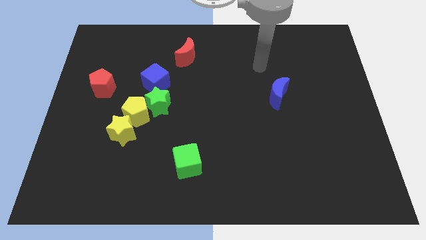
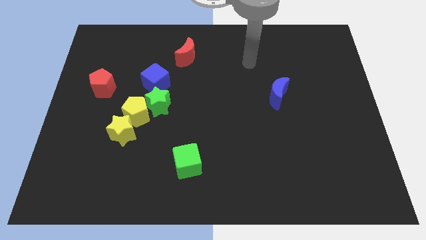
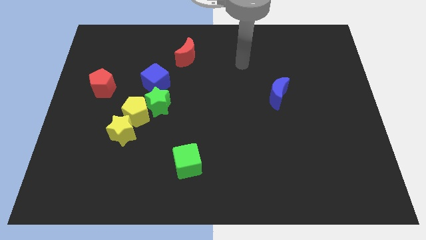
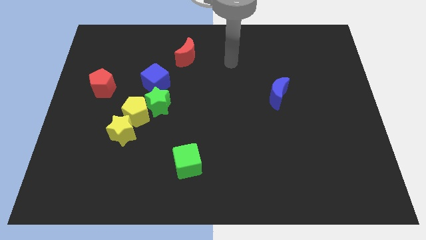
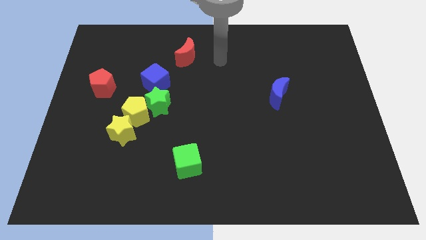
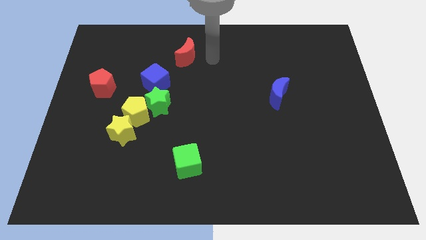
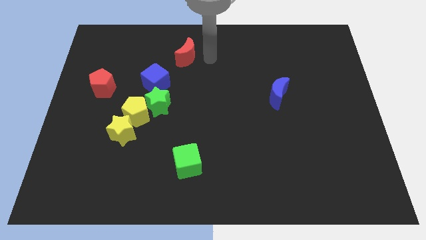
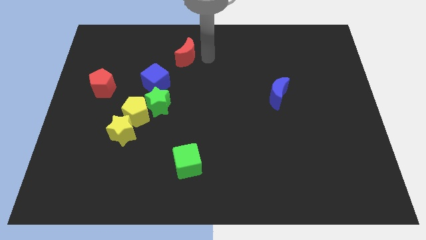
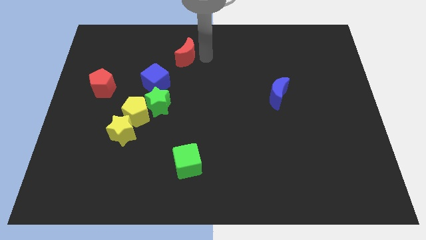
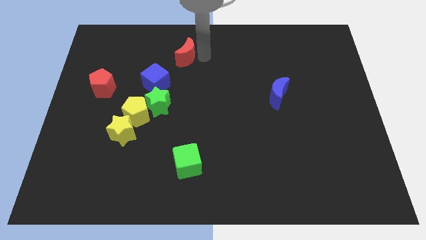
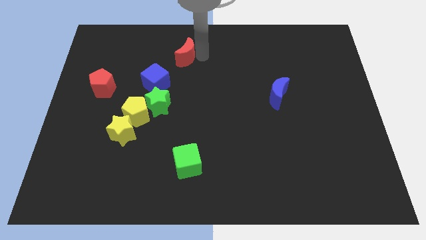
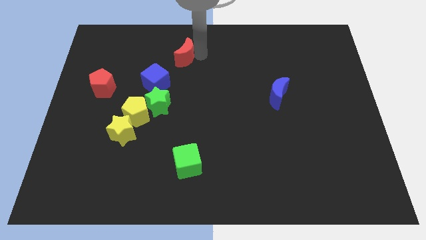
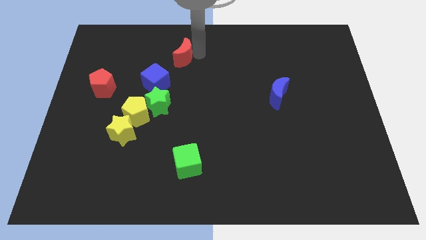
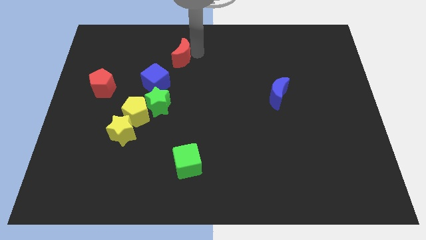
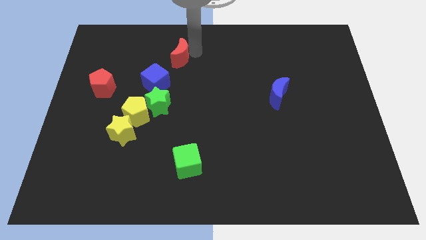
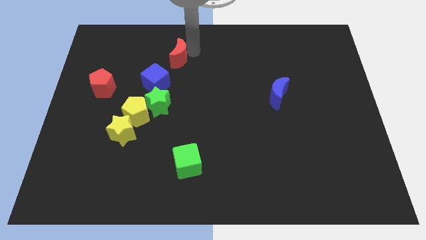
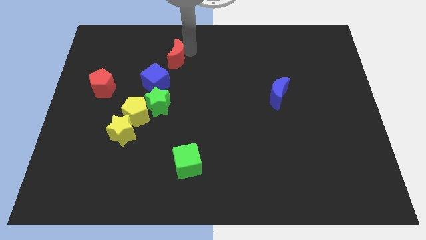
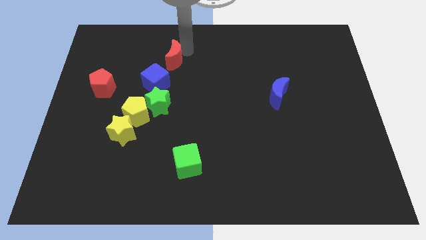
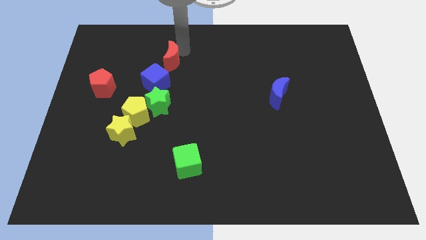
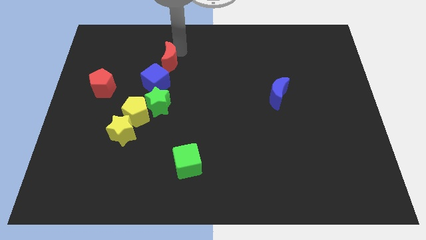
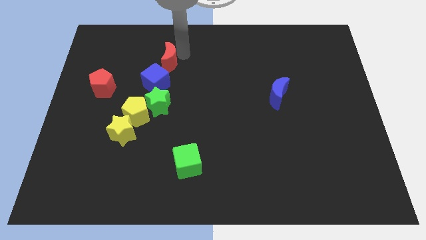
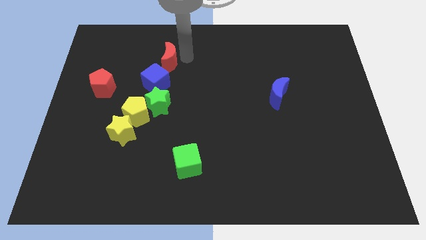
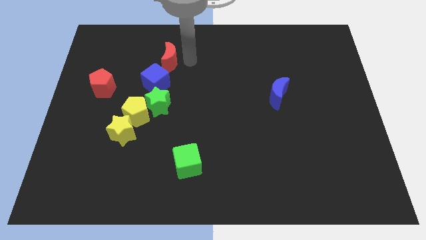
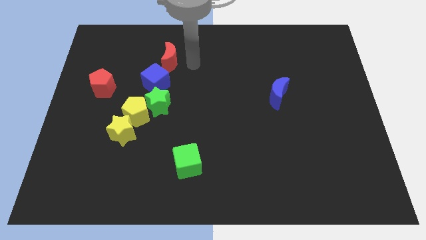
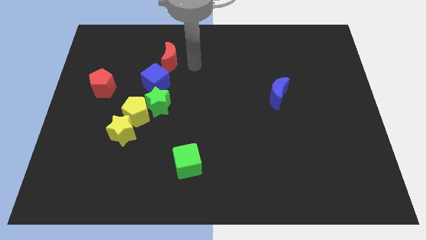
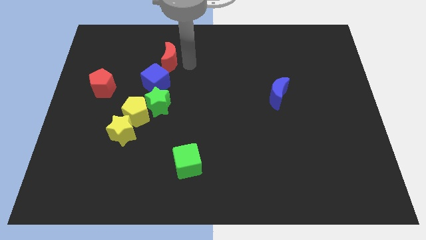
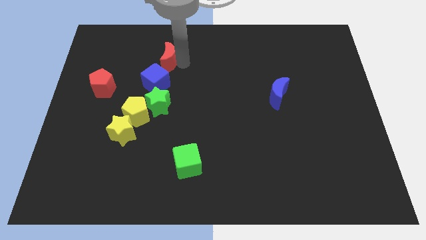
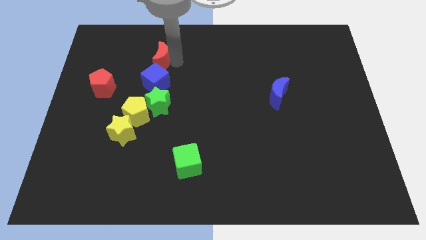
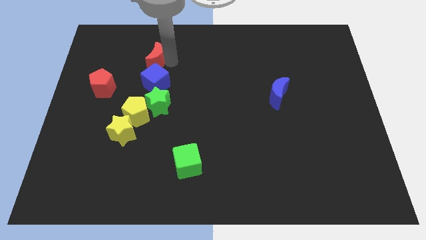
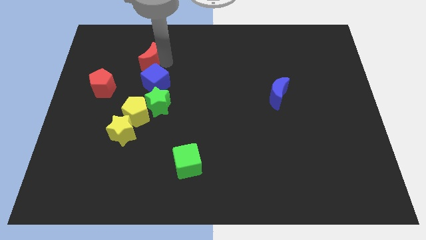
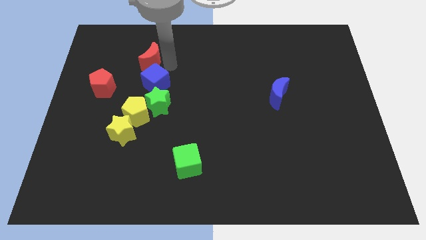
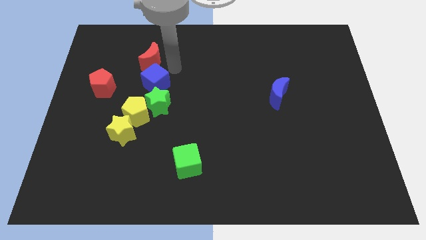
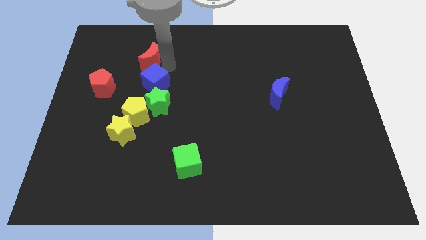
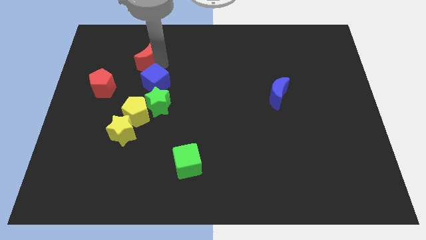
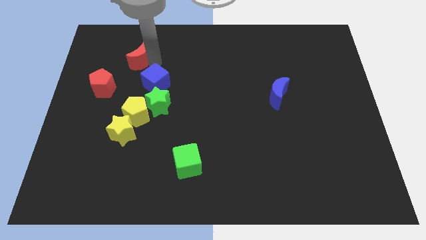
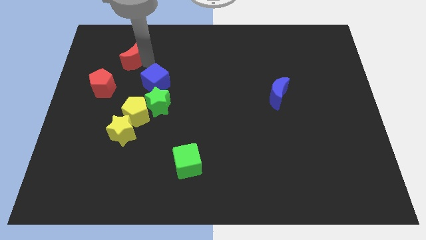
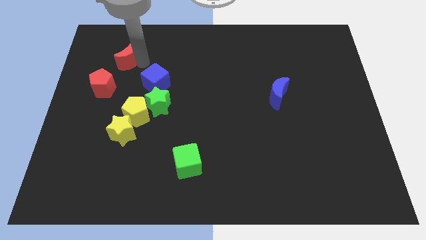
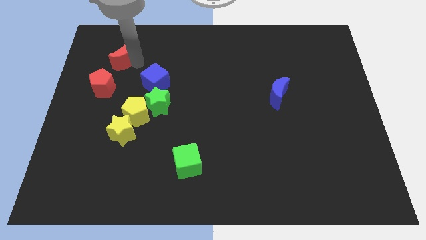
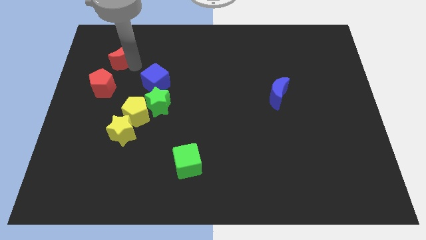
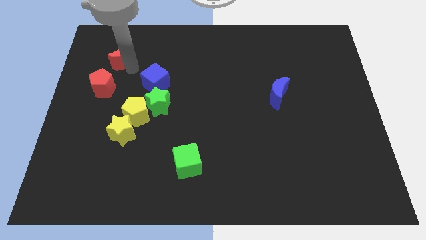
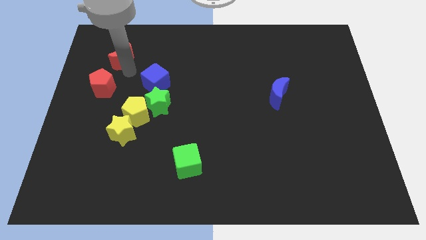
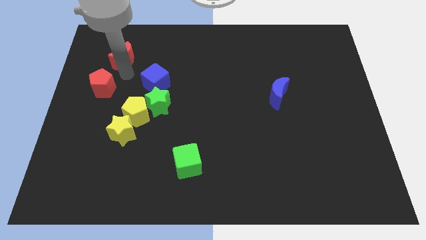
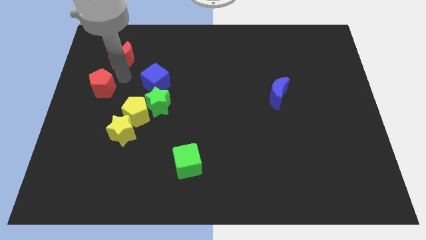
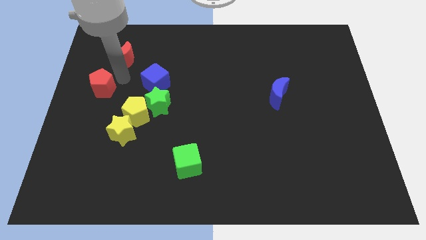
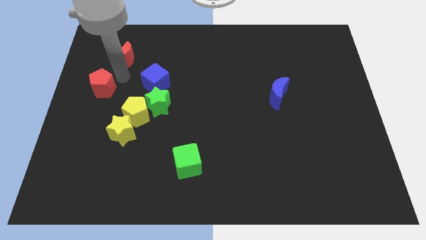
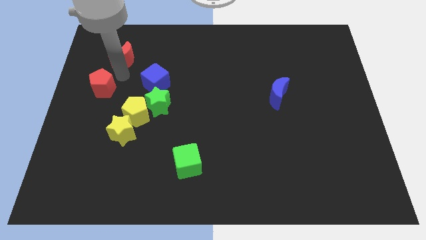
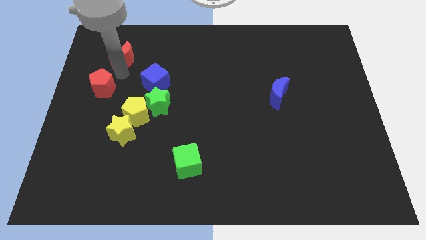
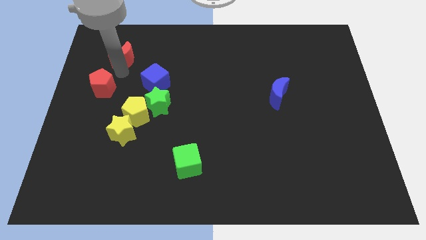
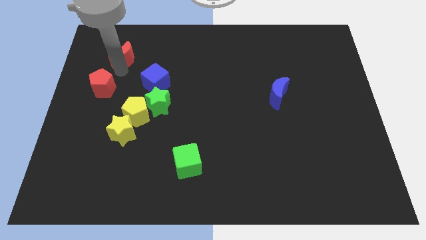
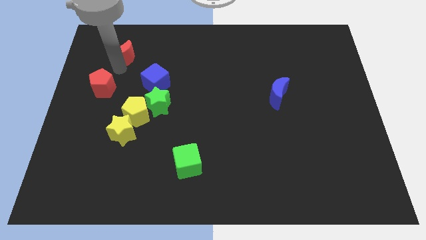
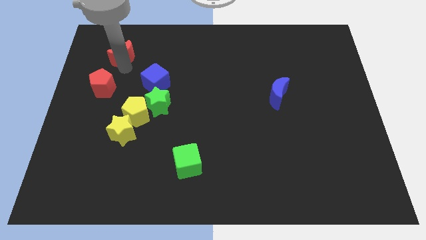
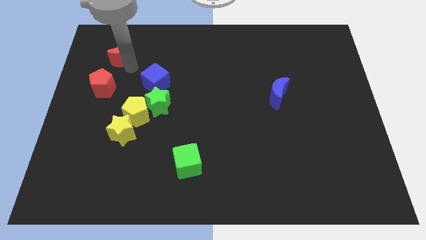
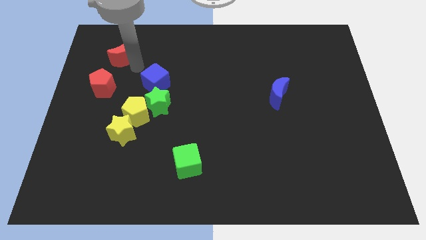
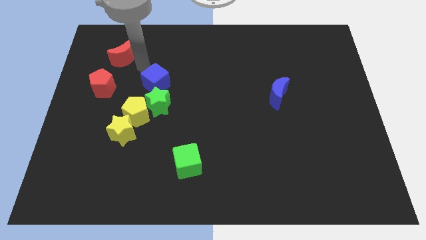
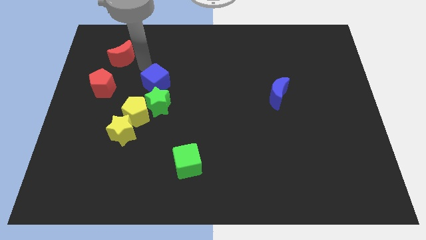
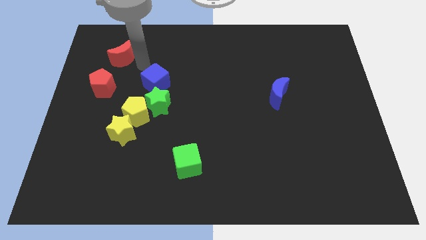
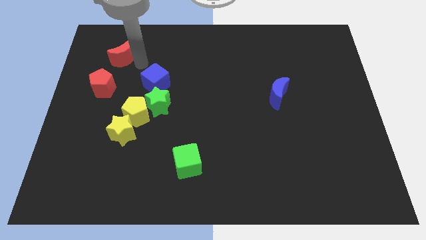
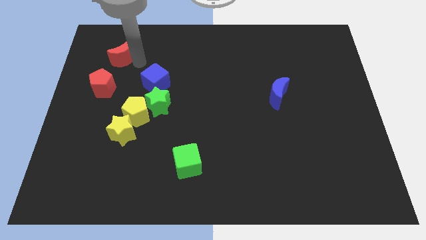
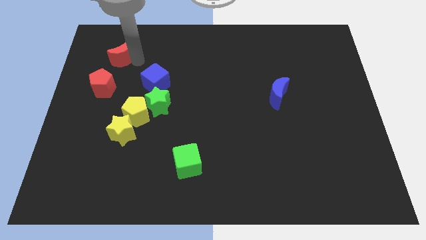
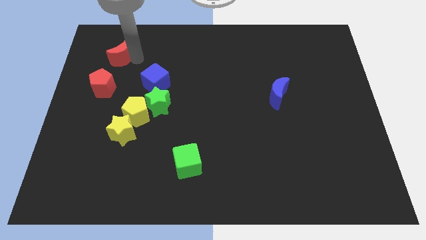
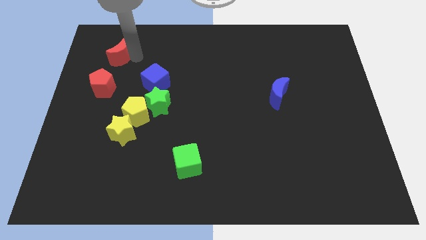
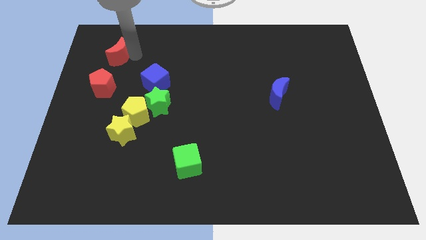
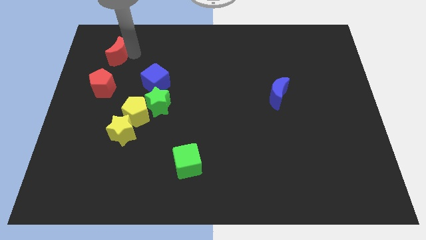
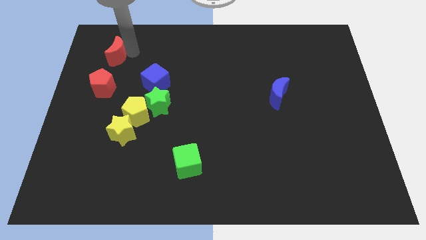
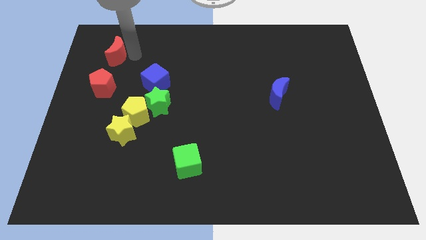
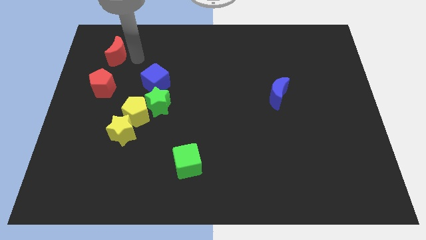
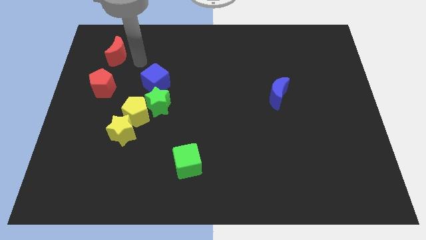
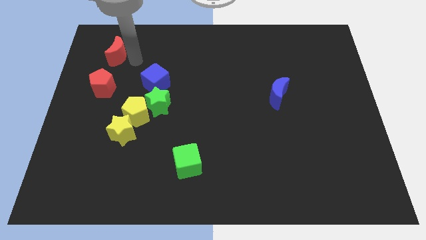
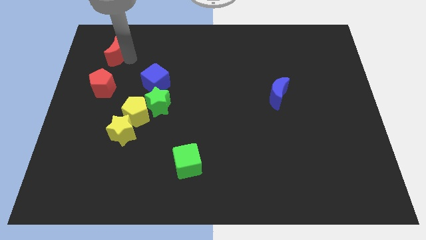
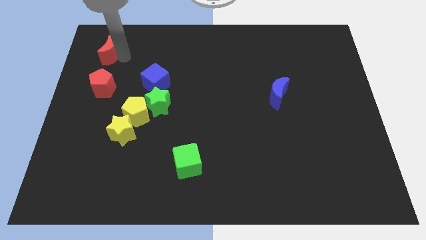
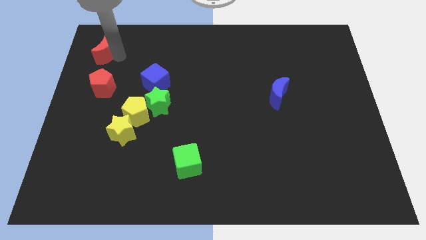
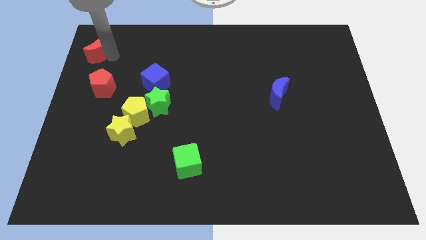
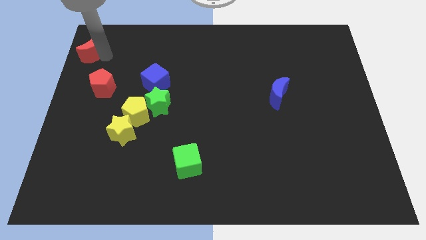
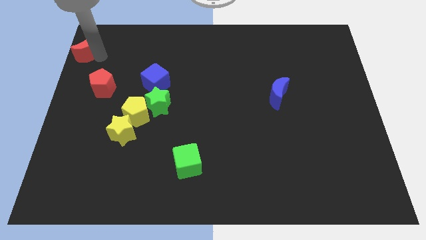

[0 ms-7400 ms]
push the red moon to the upper left corner

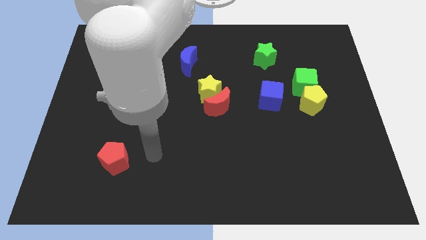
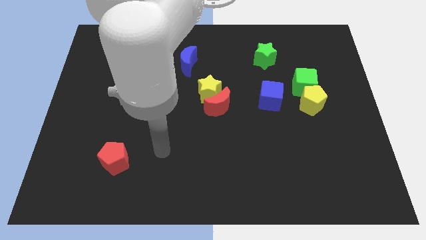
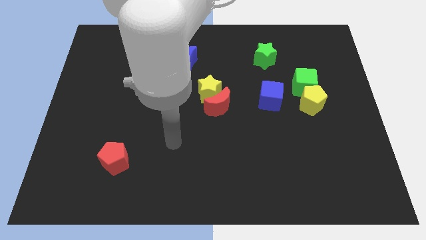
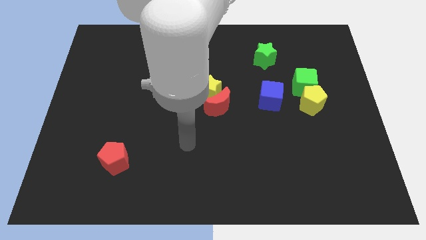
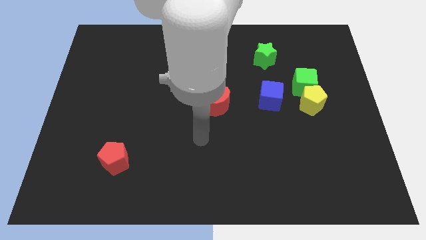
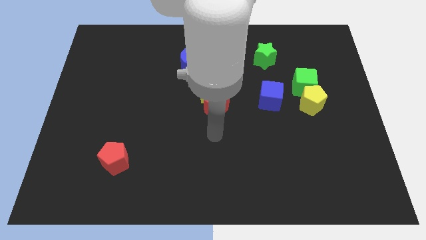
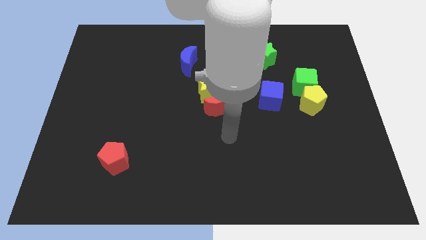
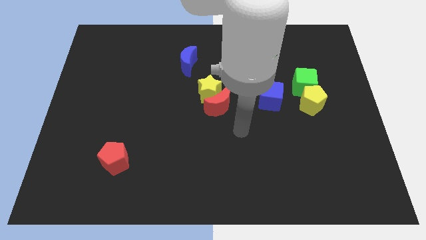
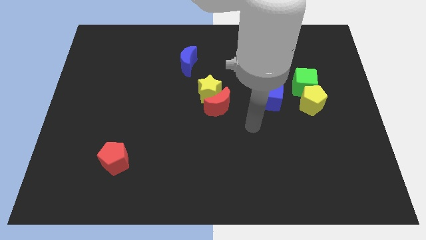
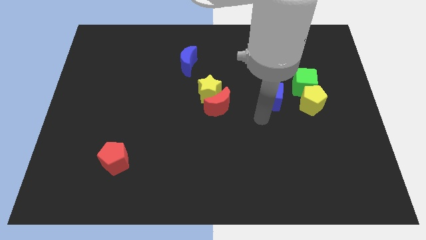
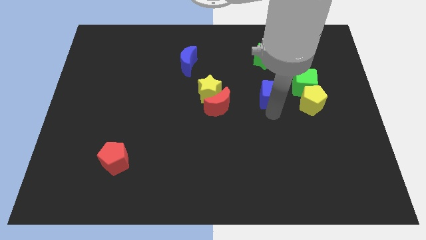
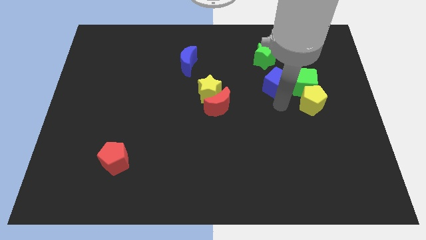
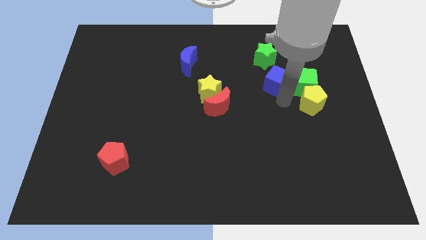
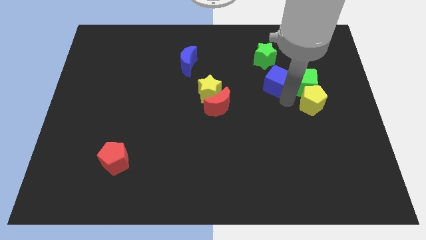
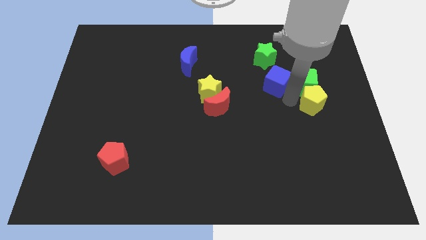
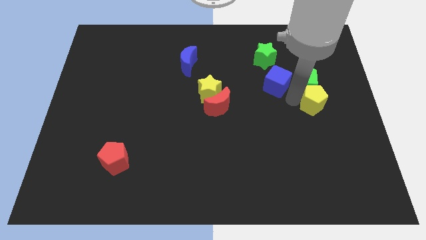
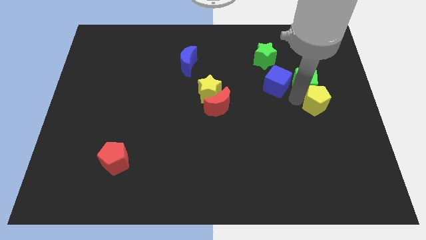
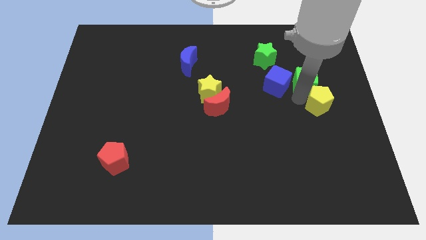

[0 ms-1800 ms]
put the yellow pentagon to the right side
